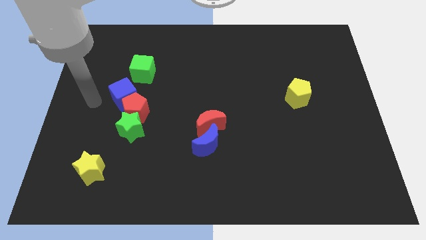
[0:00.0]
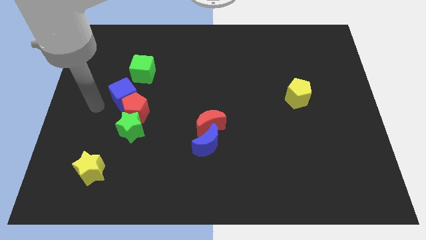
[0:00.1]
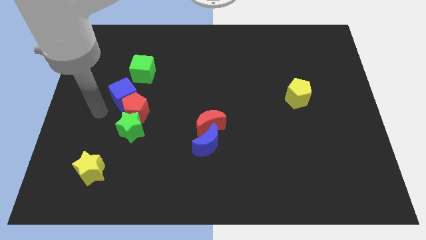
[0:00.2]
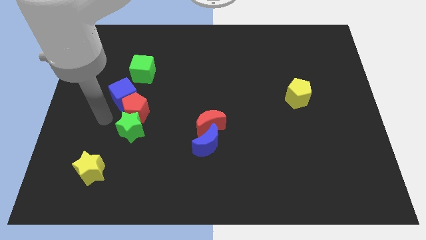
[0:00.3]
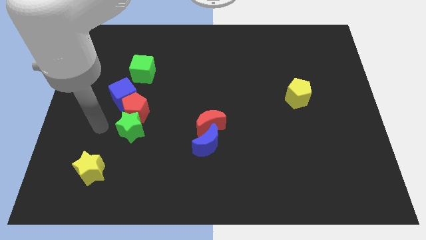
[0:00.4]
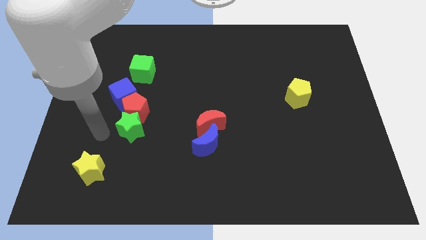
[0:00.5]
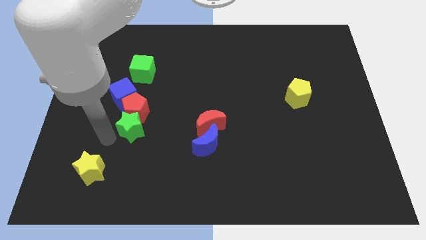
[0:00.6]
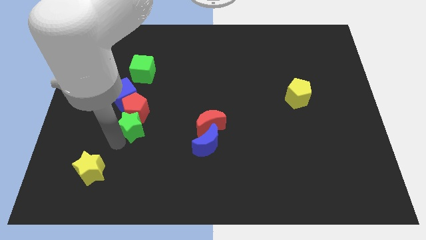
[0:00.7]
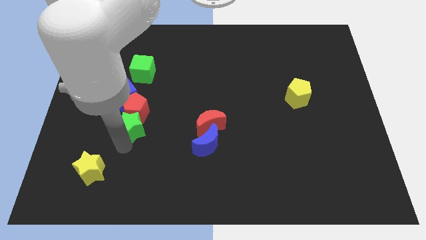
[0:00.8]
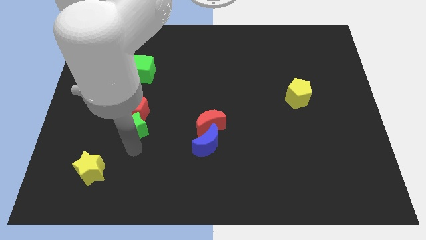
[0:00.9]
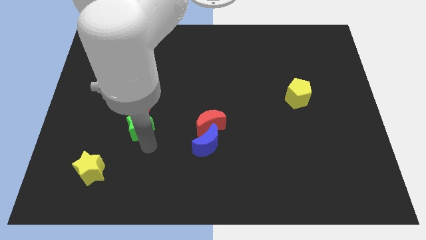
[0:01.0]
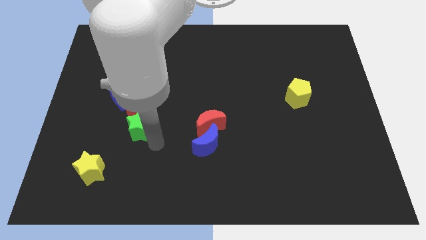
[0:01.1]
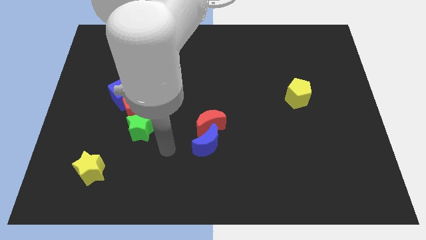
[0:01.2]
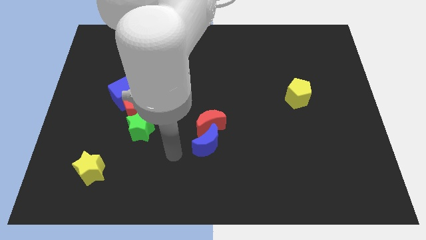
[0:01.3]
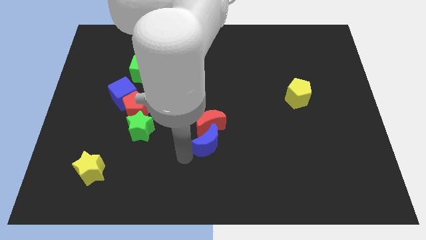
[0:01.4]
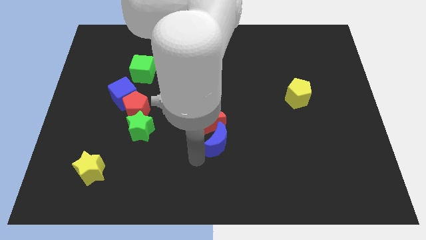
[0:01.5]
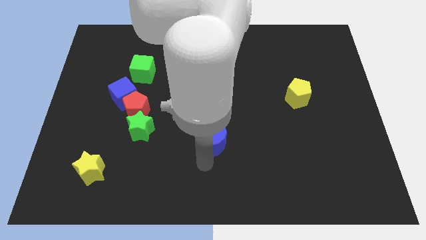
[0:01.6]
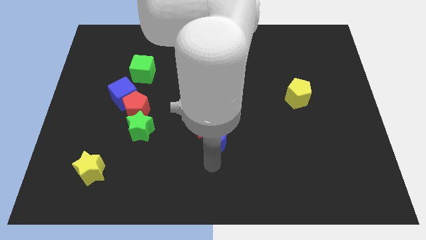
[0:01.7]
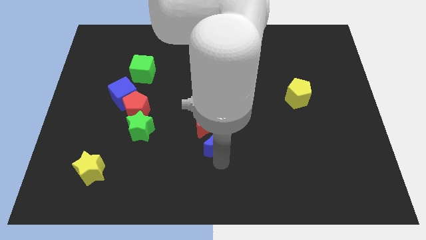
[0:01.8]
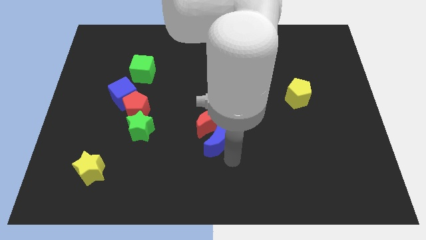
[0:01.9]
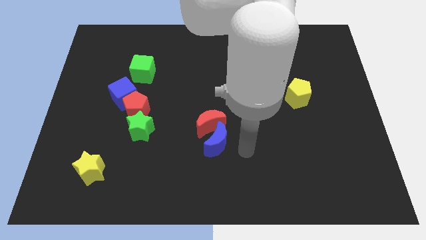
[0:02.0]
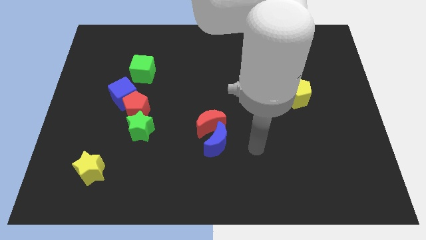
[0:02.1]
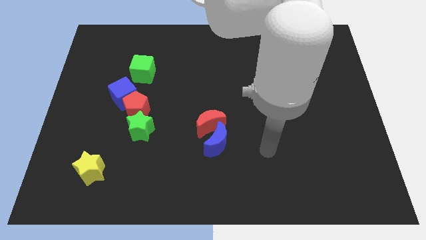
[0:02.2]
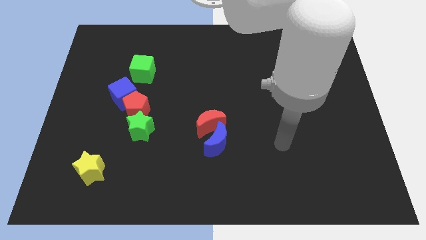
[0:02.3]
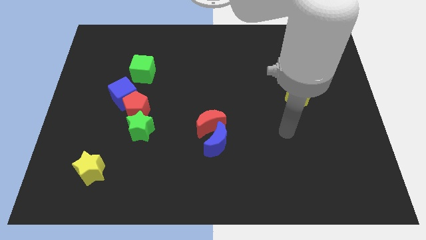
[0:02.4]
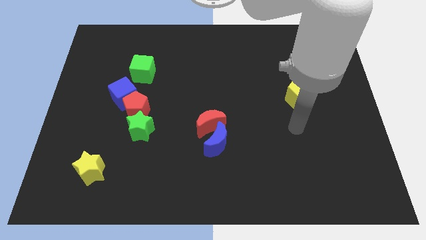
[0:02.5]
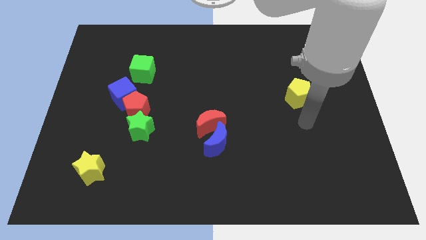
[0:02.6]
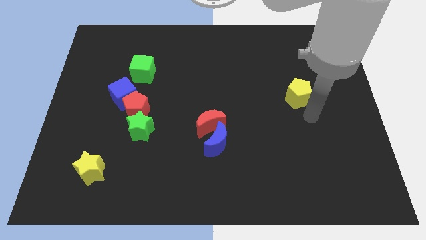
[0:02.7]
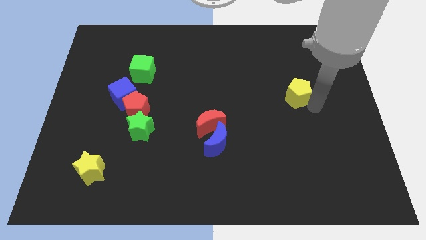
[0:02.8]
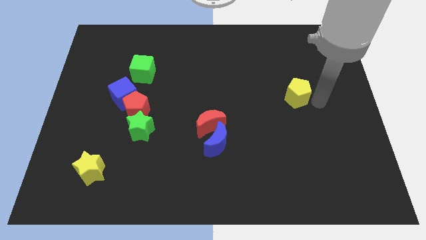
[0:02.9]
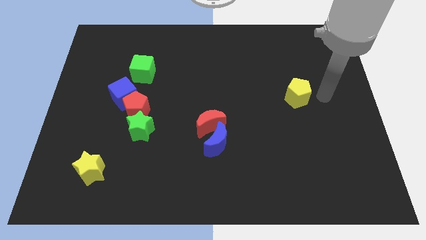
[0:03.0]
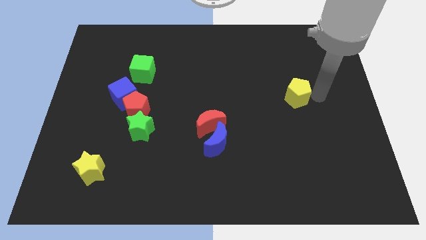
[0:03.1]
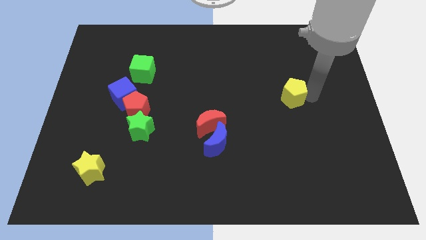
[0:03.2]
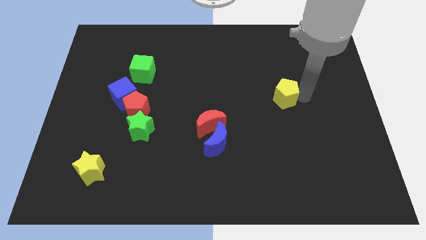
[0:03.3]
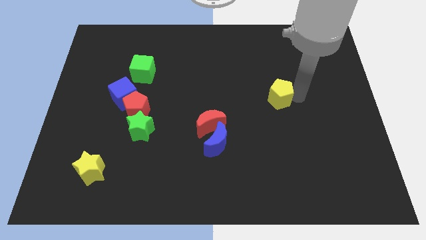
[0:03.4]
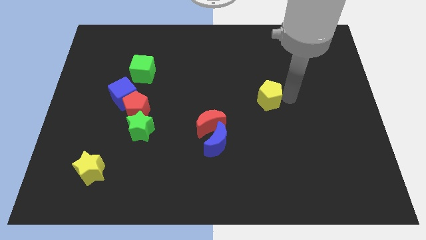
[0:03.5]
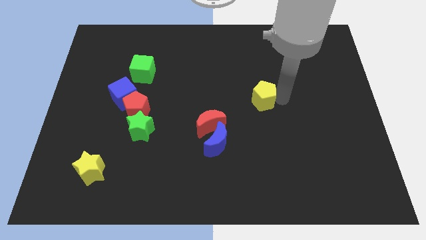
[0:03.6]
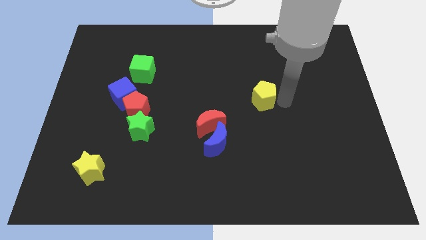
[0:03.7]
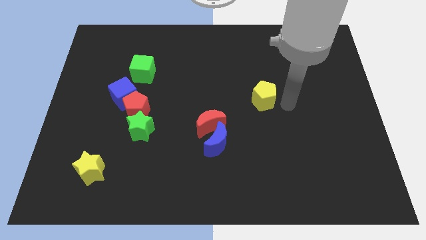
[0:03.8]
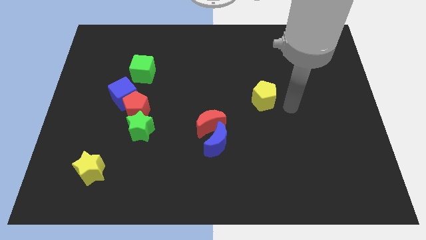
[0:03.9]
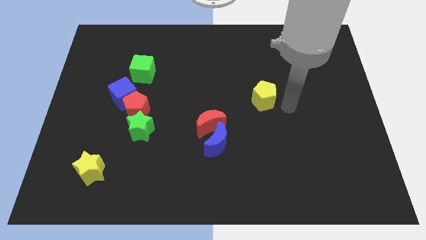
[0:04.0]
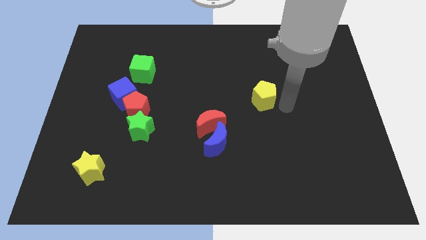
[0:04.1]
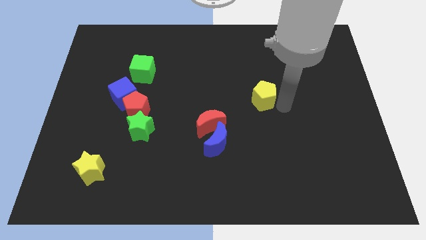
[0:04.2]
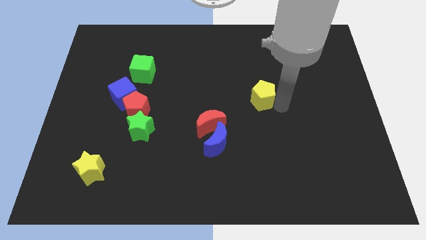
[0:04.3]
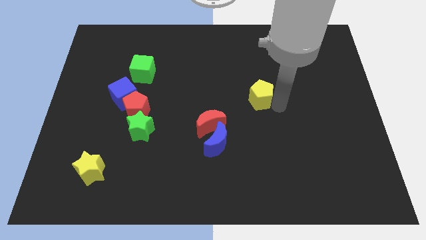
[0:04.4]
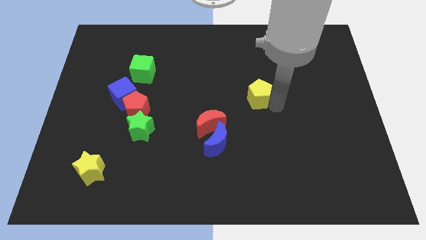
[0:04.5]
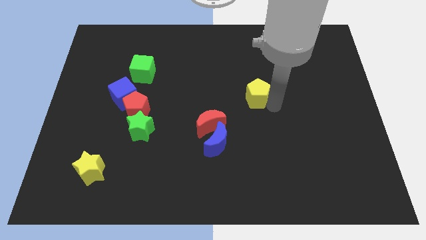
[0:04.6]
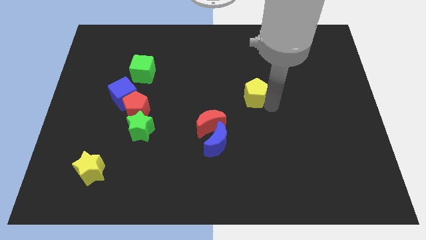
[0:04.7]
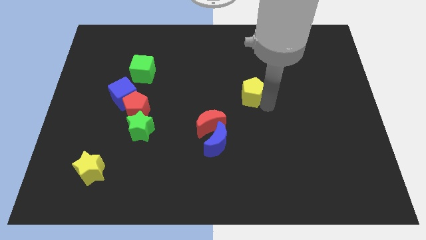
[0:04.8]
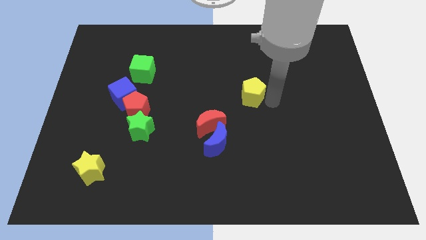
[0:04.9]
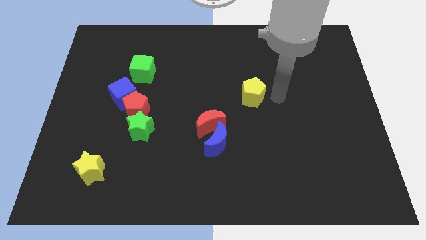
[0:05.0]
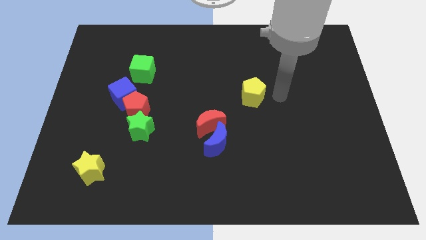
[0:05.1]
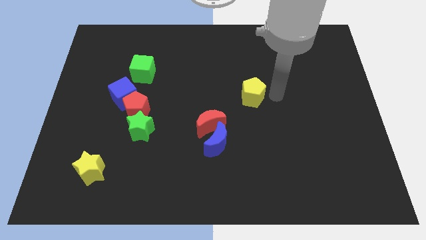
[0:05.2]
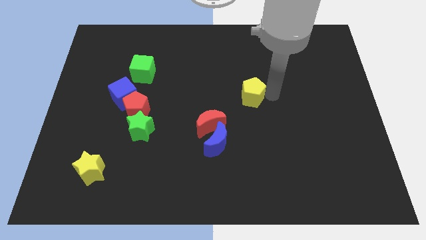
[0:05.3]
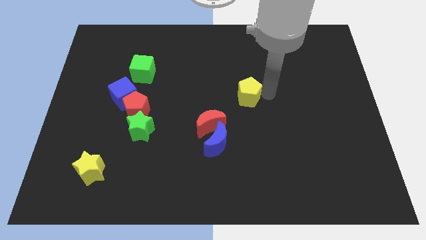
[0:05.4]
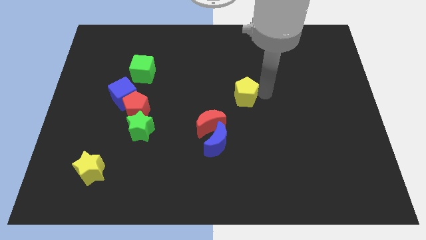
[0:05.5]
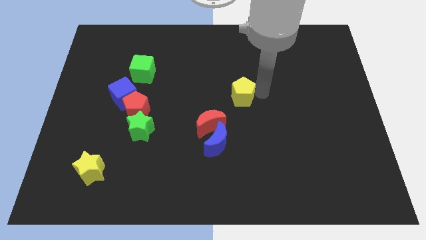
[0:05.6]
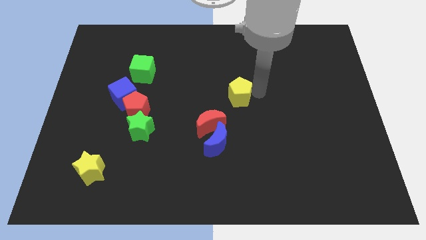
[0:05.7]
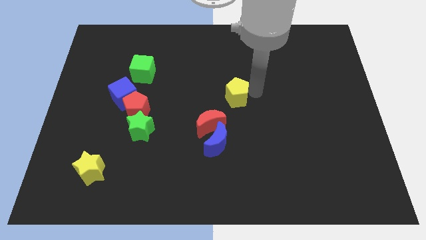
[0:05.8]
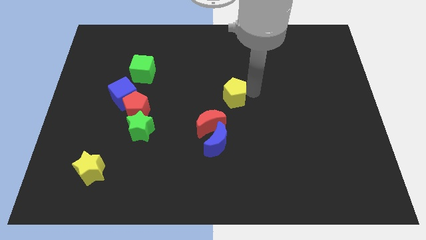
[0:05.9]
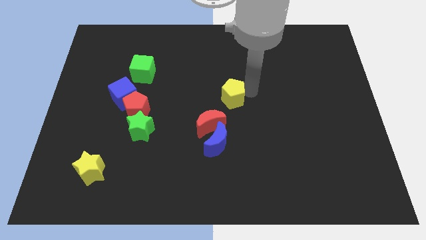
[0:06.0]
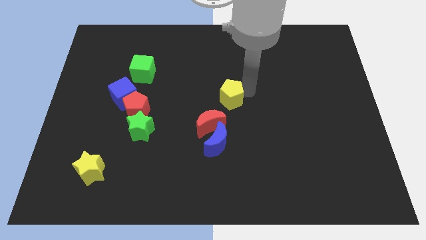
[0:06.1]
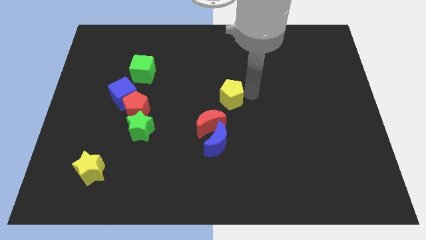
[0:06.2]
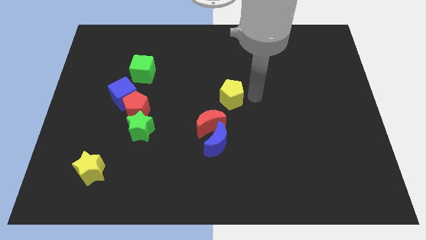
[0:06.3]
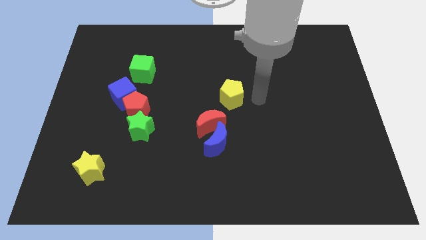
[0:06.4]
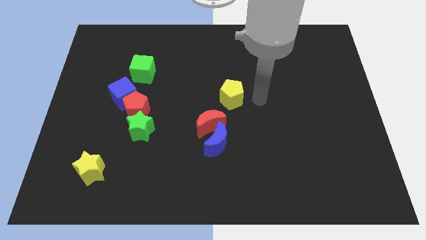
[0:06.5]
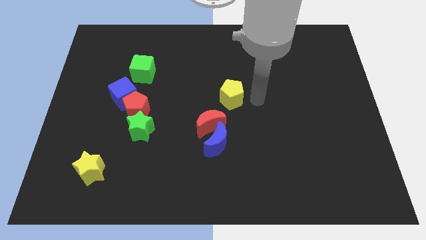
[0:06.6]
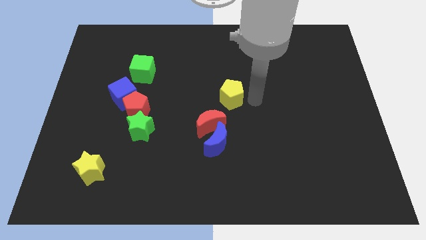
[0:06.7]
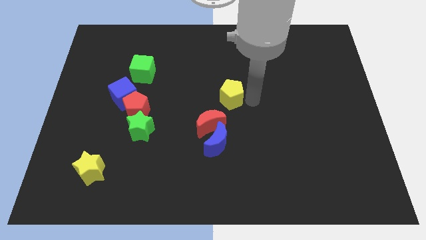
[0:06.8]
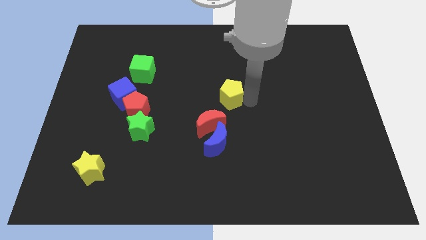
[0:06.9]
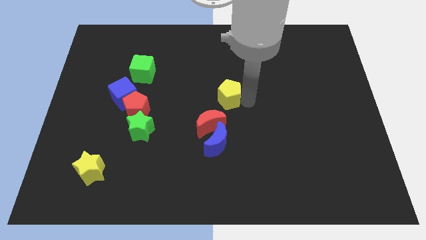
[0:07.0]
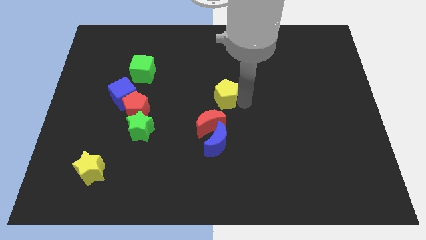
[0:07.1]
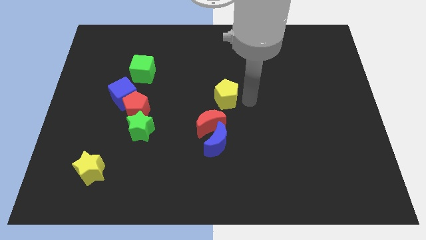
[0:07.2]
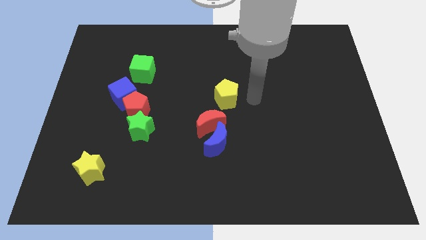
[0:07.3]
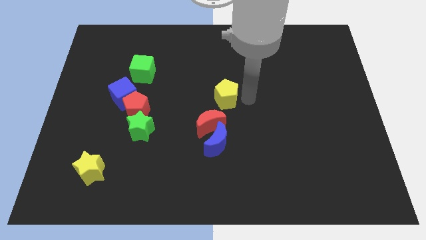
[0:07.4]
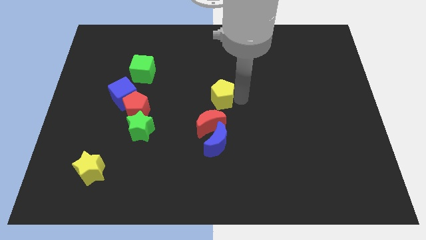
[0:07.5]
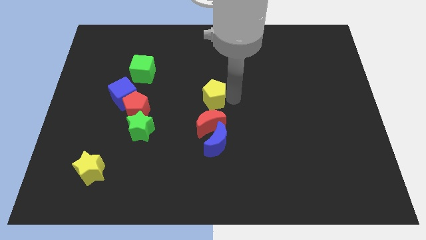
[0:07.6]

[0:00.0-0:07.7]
move the yellow pentagon to the left

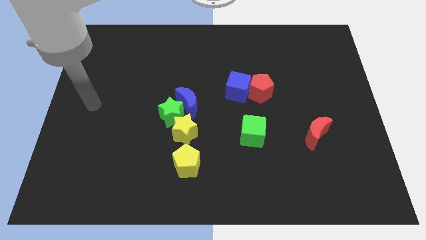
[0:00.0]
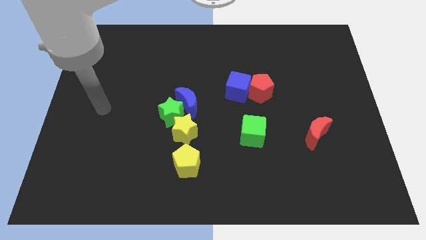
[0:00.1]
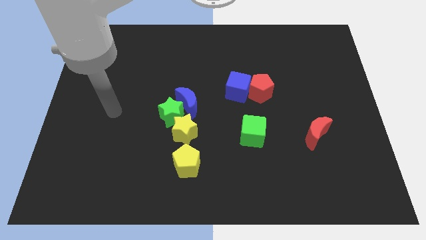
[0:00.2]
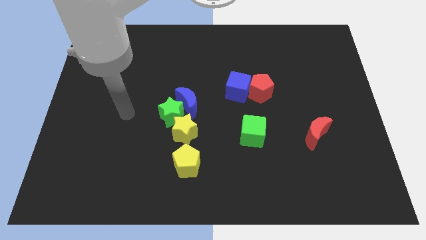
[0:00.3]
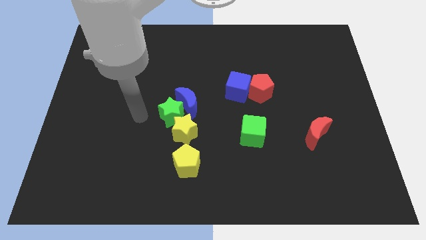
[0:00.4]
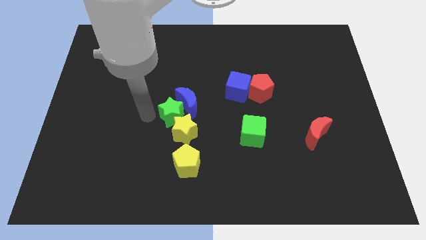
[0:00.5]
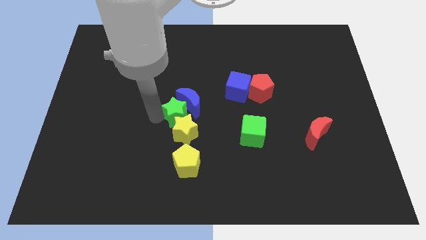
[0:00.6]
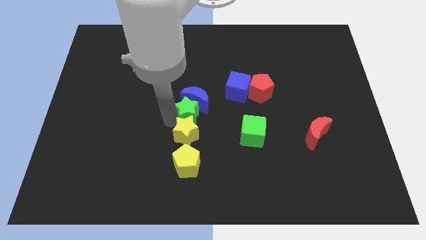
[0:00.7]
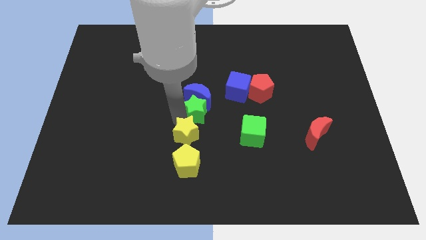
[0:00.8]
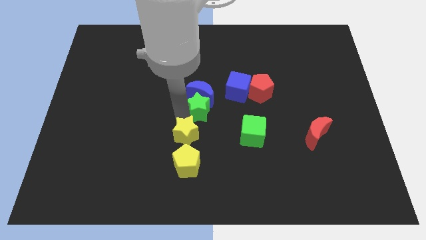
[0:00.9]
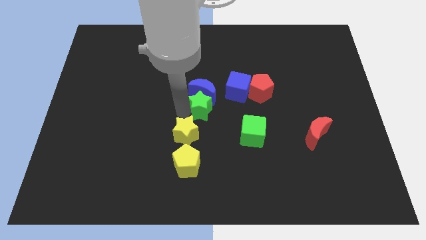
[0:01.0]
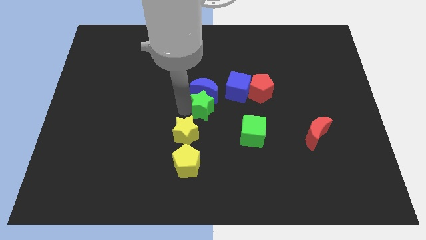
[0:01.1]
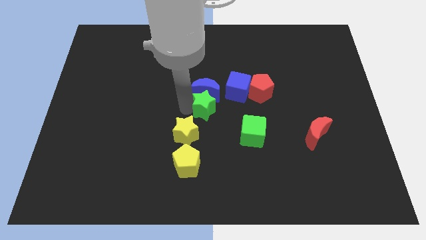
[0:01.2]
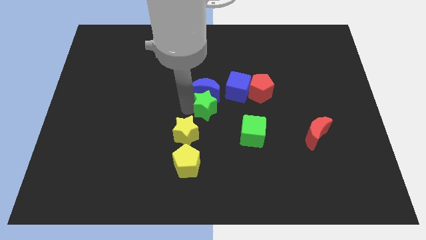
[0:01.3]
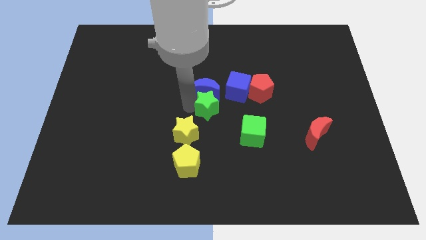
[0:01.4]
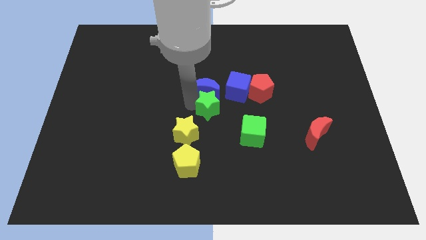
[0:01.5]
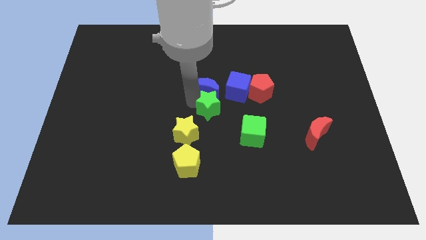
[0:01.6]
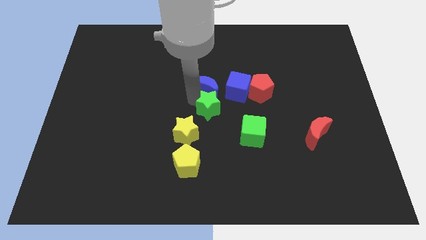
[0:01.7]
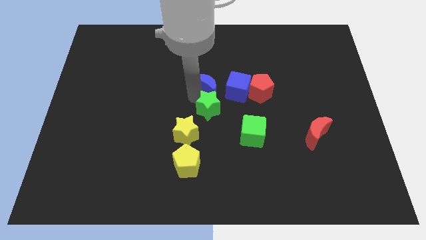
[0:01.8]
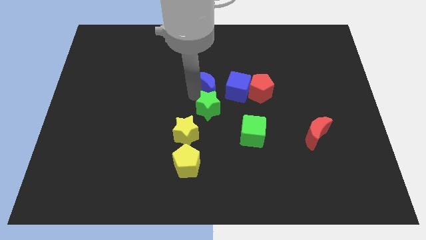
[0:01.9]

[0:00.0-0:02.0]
push the blue moon diagonally up and right a little bit
